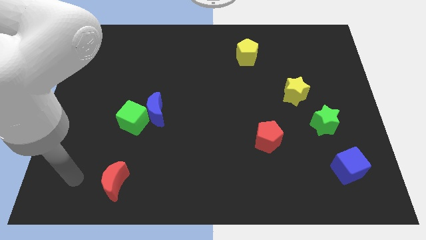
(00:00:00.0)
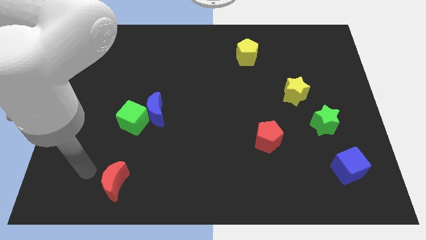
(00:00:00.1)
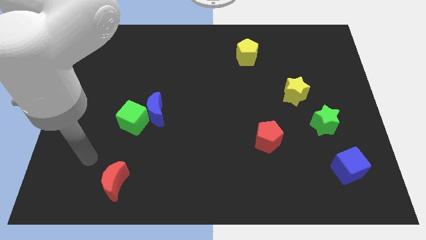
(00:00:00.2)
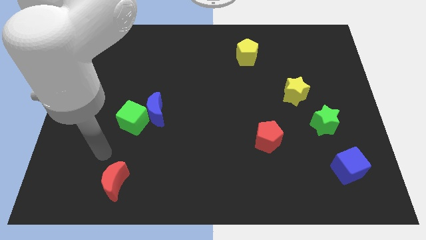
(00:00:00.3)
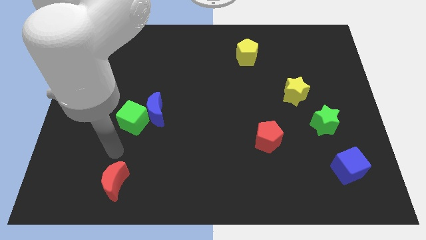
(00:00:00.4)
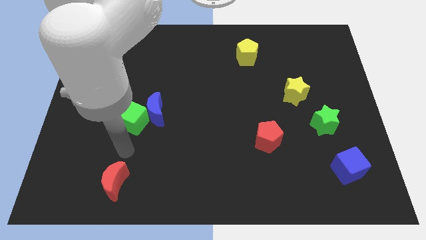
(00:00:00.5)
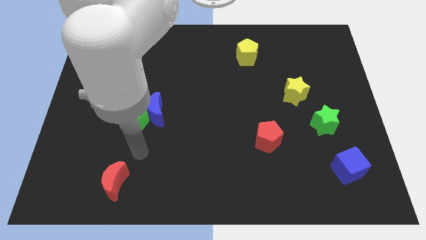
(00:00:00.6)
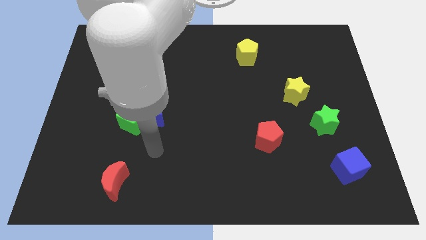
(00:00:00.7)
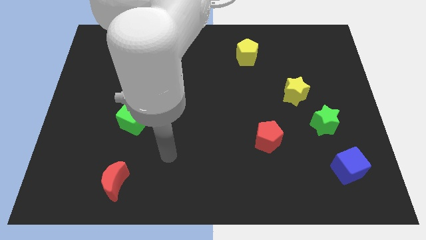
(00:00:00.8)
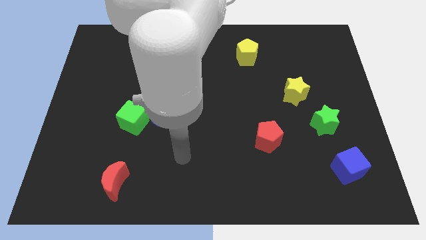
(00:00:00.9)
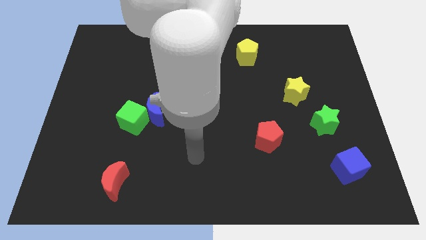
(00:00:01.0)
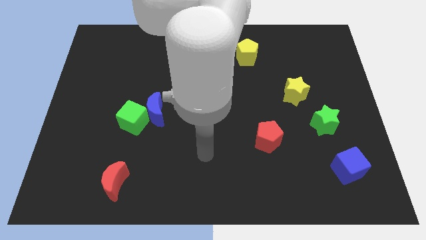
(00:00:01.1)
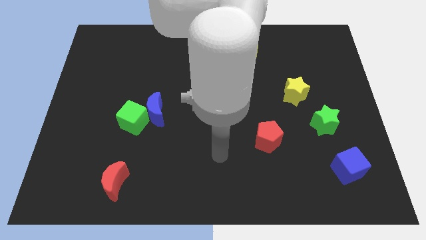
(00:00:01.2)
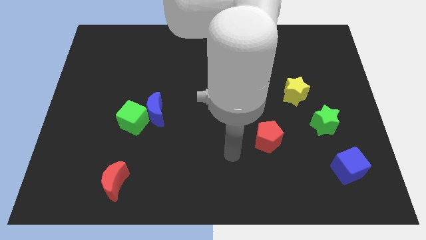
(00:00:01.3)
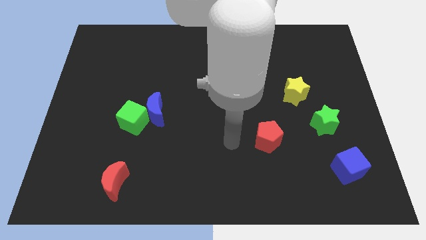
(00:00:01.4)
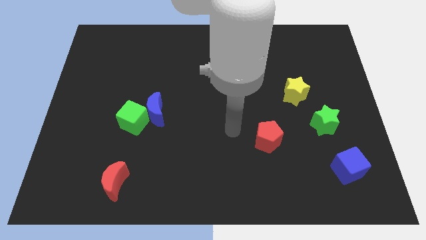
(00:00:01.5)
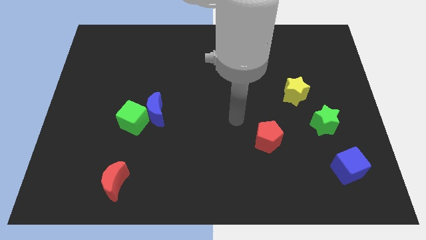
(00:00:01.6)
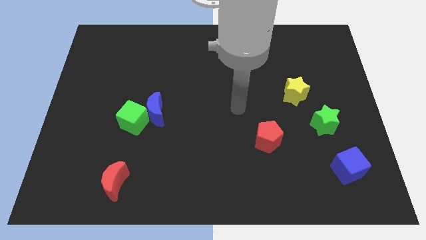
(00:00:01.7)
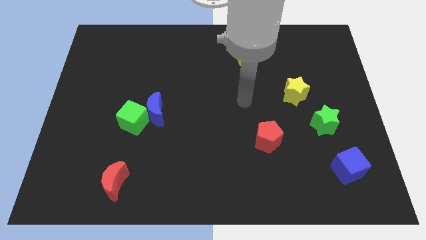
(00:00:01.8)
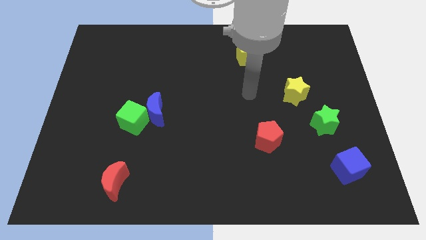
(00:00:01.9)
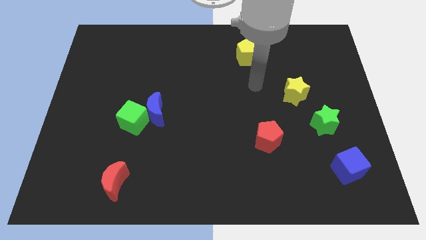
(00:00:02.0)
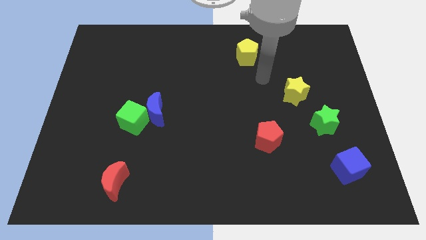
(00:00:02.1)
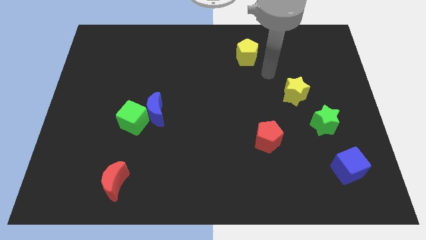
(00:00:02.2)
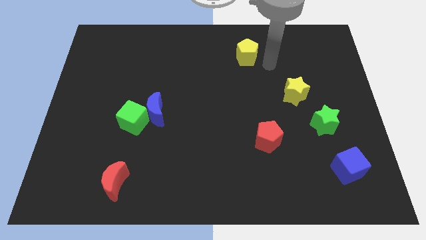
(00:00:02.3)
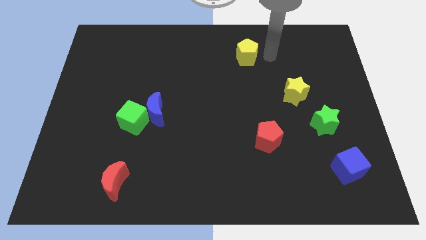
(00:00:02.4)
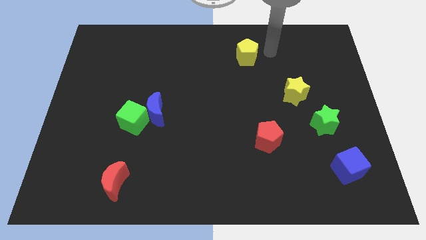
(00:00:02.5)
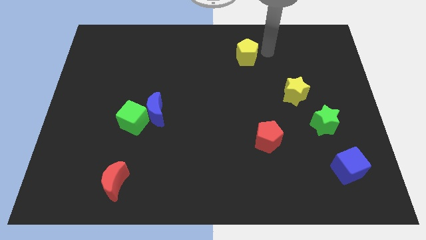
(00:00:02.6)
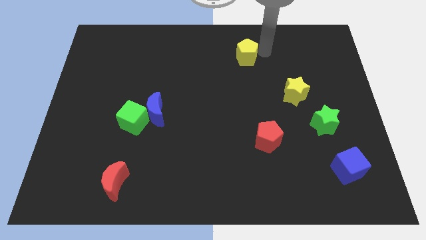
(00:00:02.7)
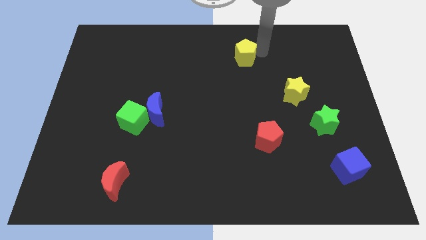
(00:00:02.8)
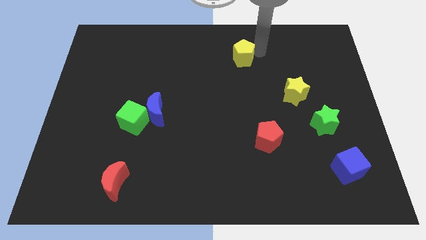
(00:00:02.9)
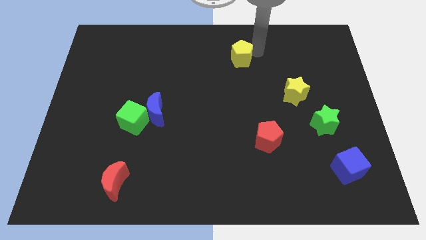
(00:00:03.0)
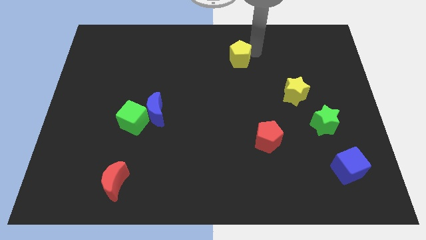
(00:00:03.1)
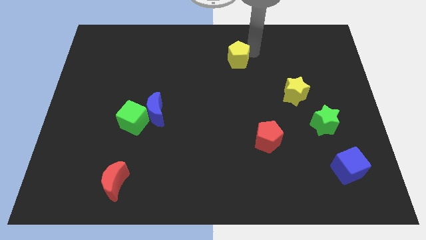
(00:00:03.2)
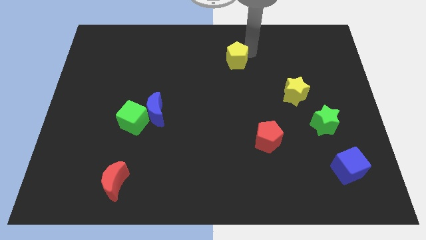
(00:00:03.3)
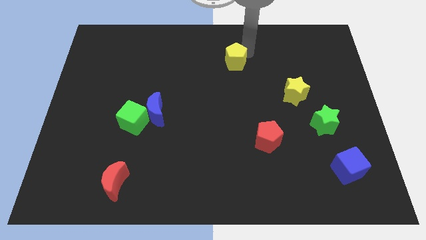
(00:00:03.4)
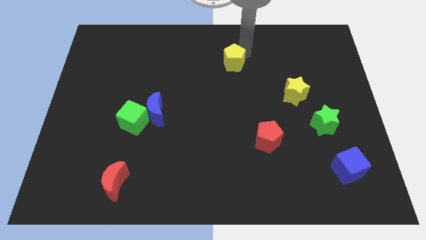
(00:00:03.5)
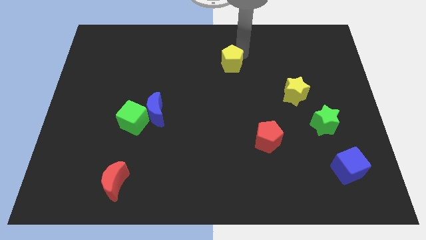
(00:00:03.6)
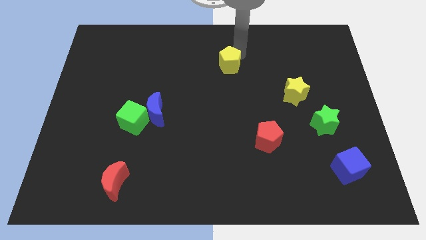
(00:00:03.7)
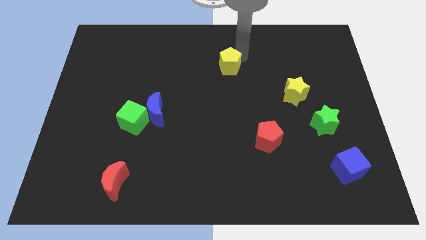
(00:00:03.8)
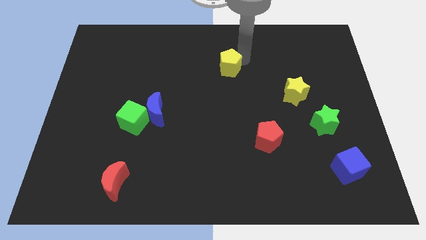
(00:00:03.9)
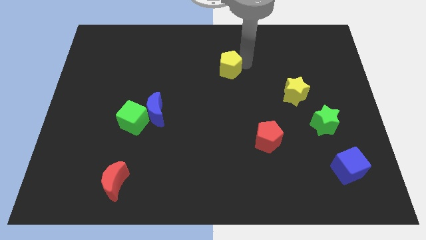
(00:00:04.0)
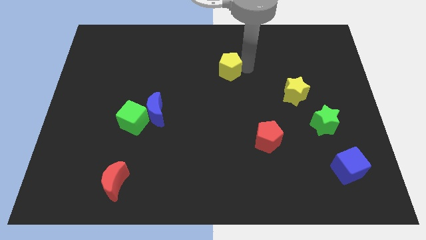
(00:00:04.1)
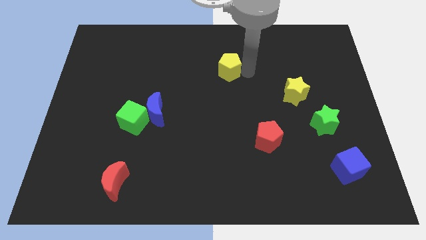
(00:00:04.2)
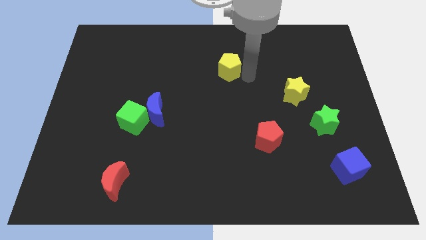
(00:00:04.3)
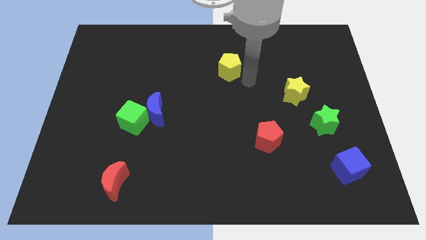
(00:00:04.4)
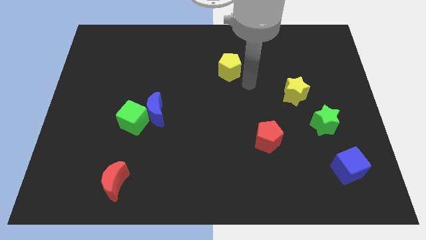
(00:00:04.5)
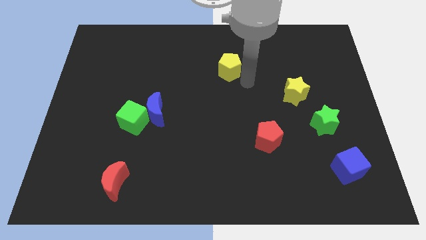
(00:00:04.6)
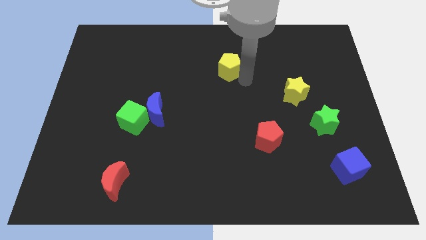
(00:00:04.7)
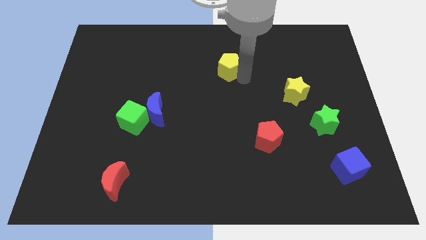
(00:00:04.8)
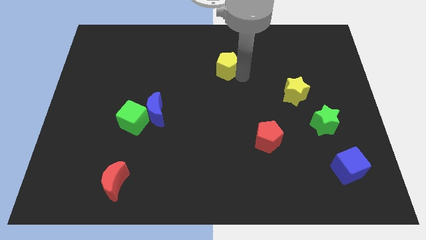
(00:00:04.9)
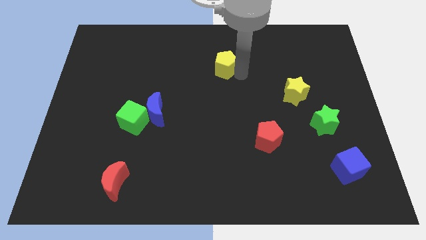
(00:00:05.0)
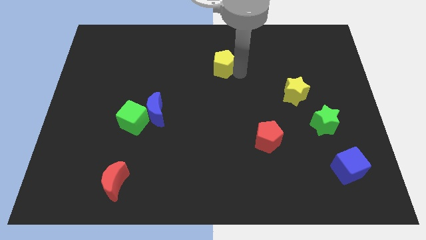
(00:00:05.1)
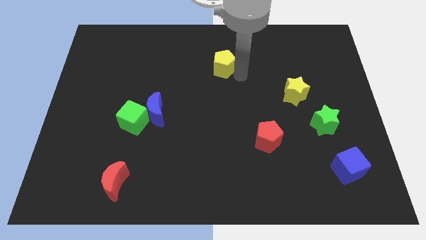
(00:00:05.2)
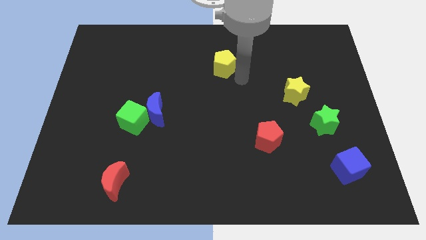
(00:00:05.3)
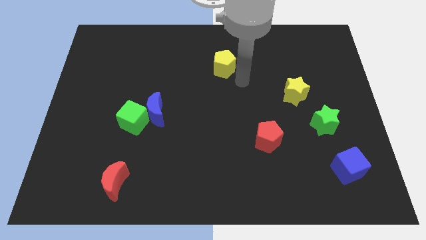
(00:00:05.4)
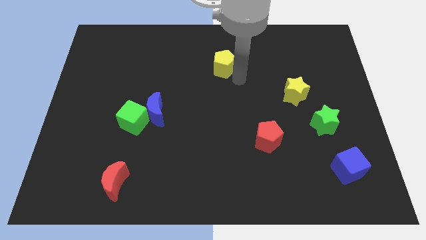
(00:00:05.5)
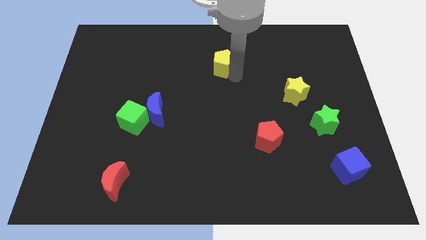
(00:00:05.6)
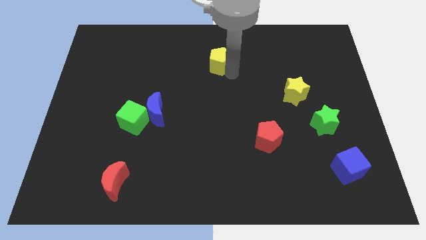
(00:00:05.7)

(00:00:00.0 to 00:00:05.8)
slide the yellow pentagon left a little bit

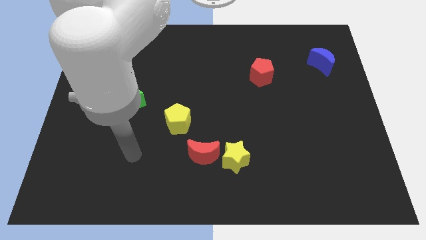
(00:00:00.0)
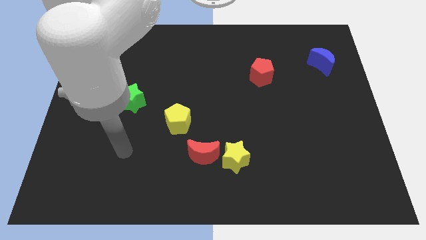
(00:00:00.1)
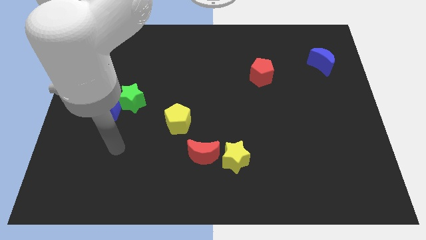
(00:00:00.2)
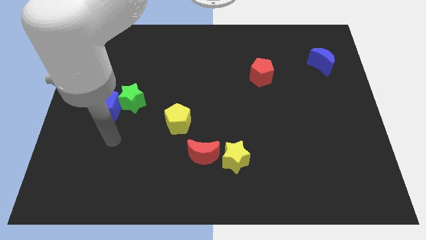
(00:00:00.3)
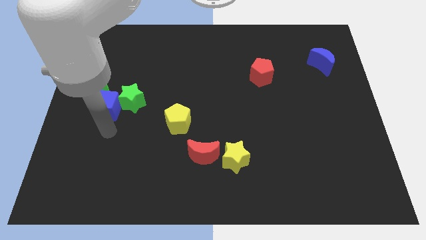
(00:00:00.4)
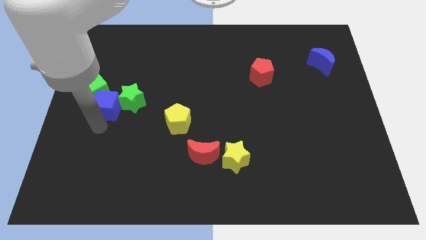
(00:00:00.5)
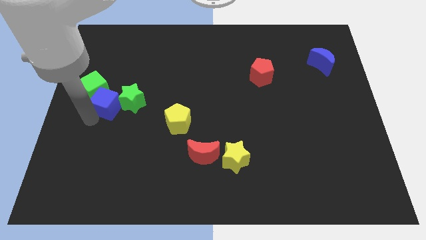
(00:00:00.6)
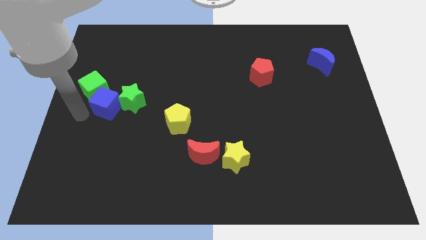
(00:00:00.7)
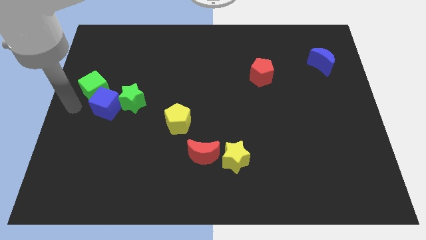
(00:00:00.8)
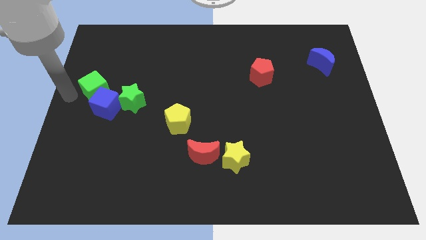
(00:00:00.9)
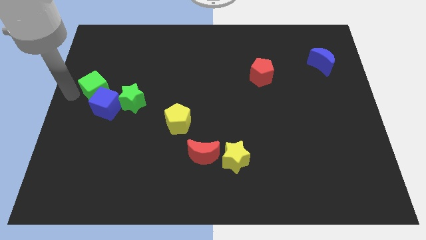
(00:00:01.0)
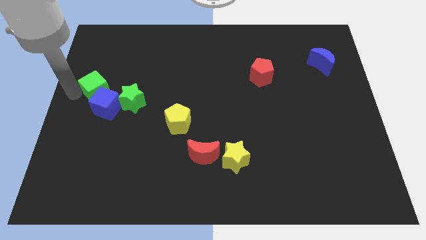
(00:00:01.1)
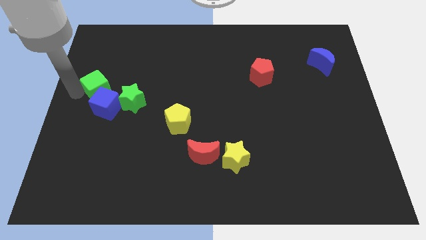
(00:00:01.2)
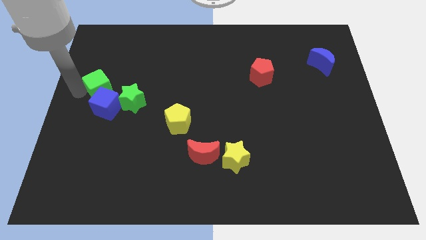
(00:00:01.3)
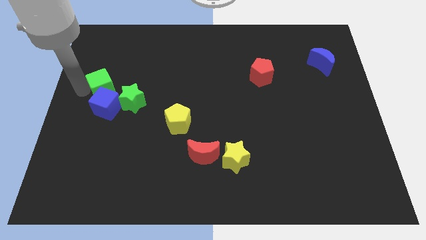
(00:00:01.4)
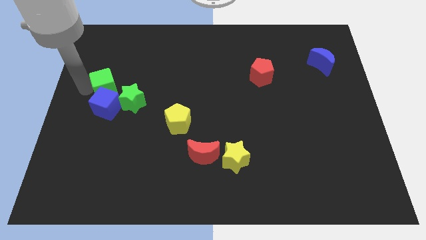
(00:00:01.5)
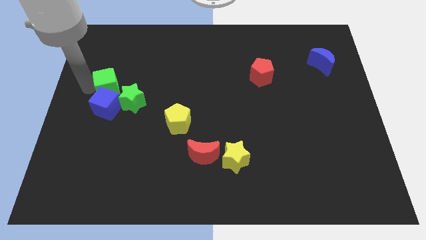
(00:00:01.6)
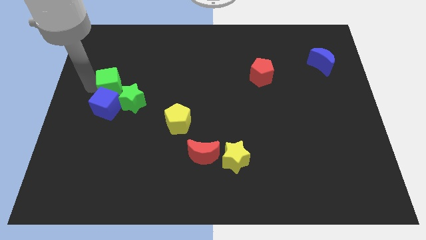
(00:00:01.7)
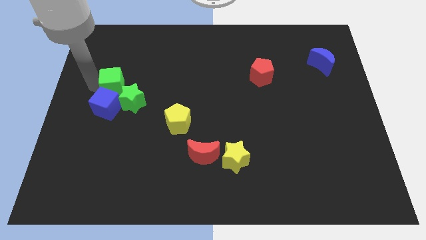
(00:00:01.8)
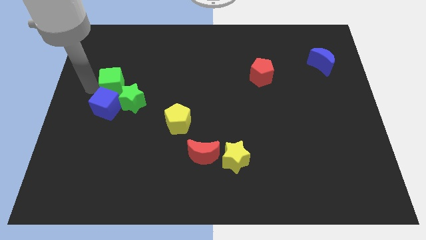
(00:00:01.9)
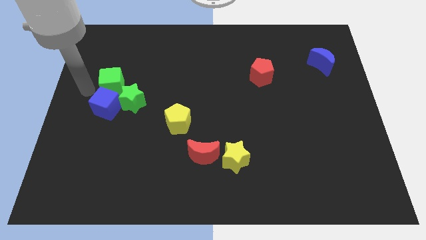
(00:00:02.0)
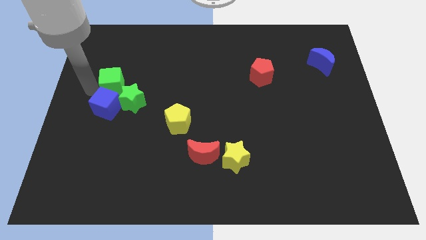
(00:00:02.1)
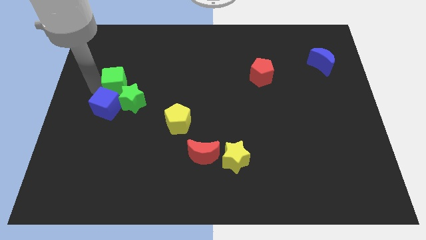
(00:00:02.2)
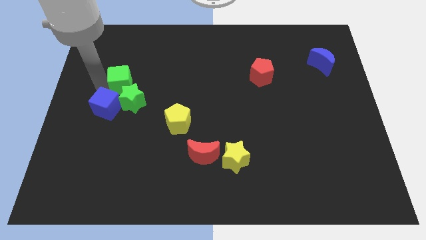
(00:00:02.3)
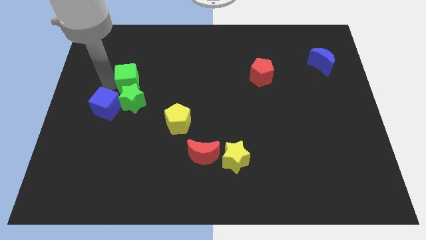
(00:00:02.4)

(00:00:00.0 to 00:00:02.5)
slightly slide the green cube to the right
